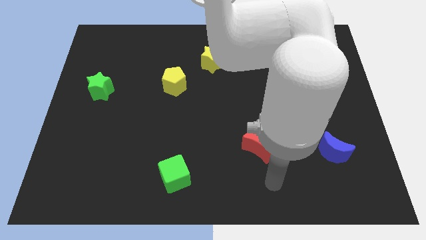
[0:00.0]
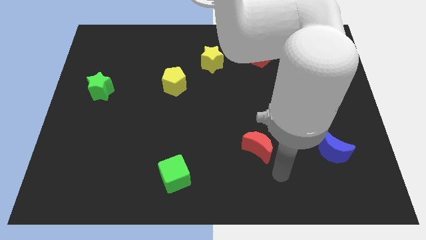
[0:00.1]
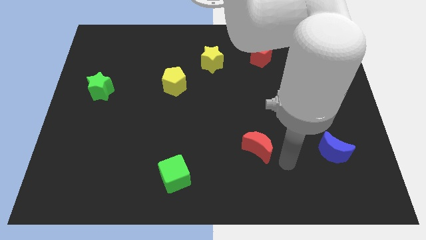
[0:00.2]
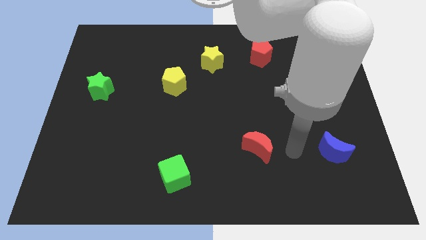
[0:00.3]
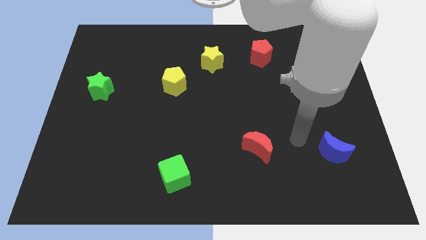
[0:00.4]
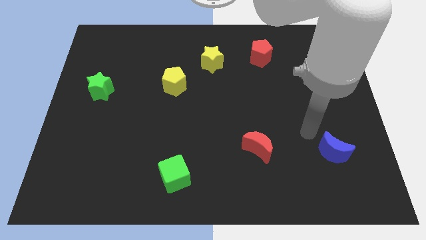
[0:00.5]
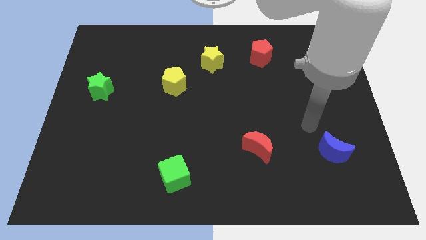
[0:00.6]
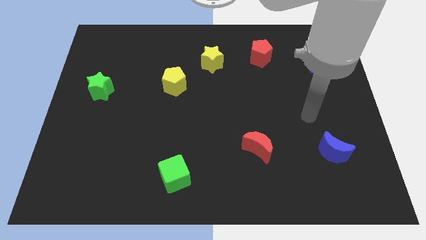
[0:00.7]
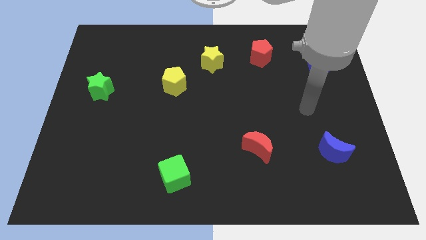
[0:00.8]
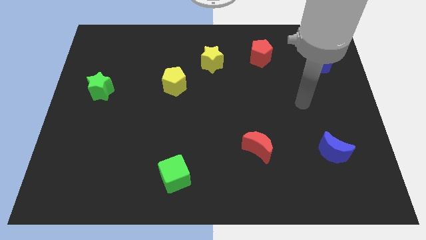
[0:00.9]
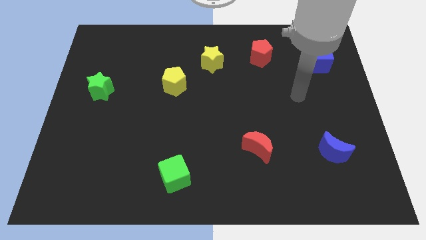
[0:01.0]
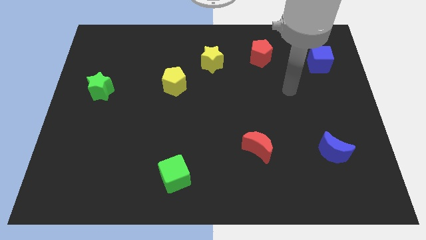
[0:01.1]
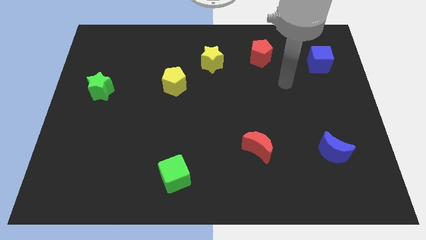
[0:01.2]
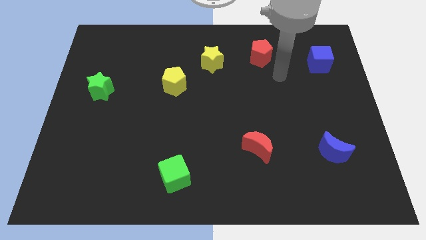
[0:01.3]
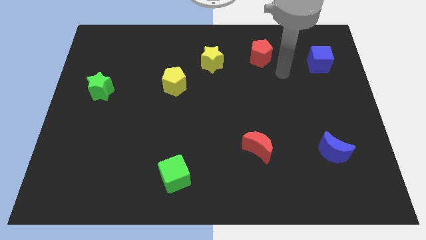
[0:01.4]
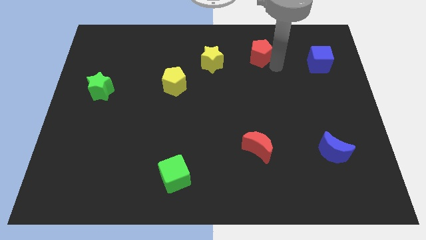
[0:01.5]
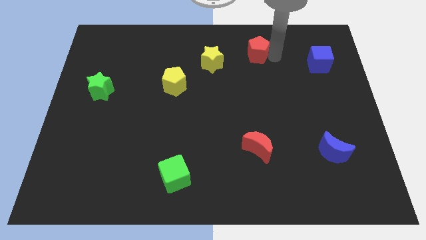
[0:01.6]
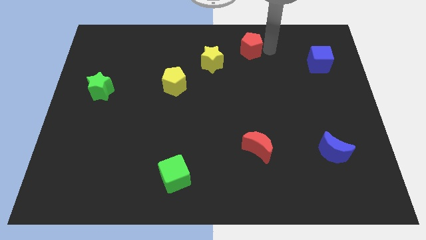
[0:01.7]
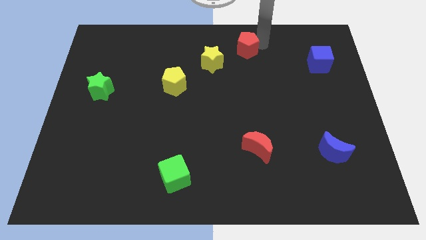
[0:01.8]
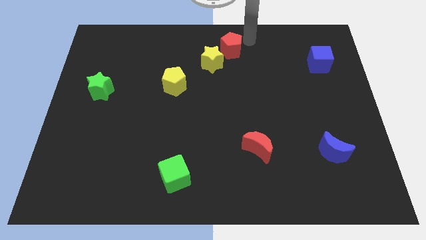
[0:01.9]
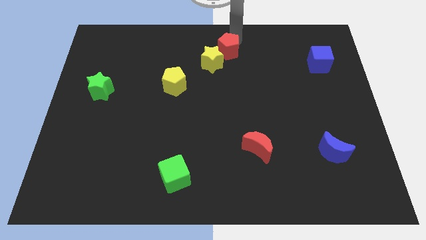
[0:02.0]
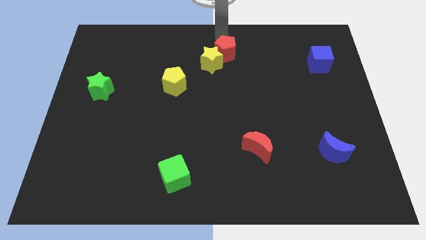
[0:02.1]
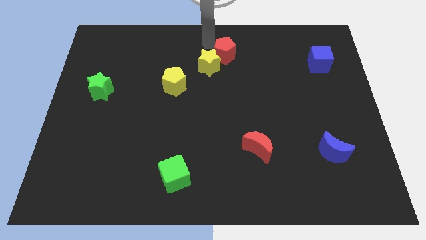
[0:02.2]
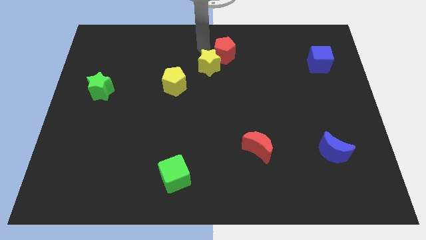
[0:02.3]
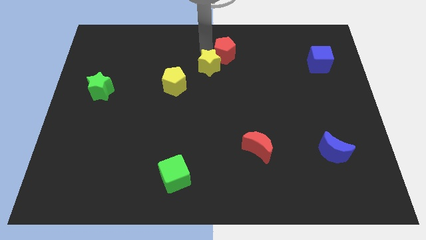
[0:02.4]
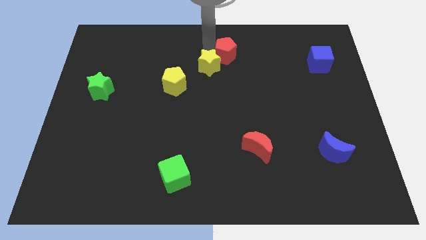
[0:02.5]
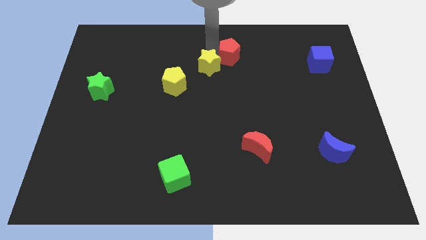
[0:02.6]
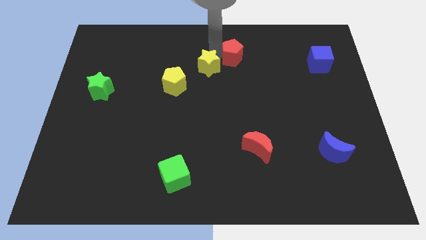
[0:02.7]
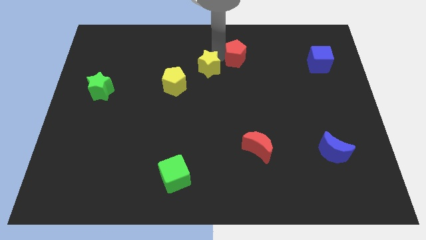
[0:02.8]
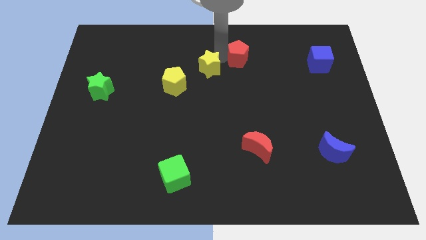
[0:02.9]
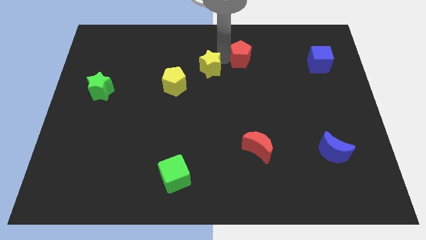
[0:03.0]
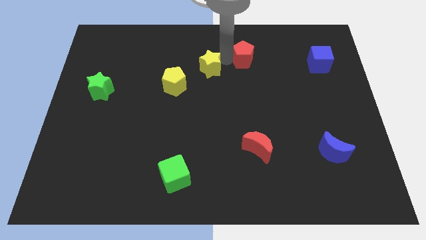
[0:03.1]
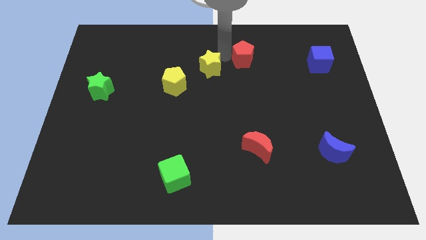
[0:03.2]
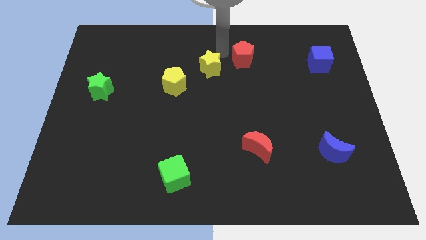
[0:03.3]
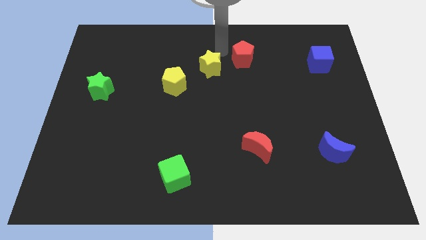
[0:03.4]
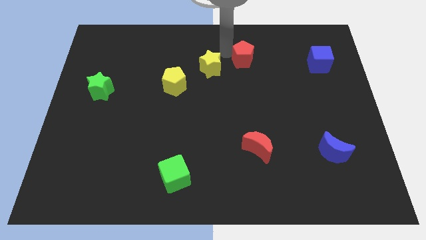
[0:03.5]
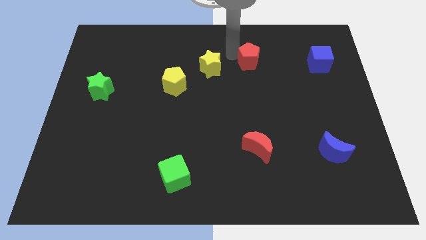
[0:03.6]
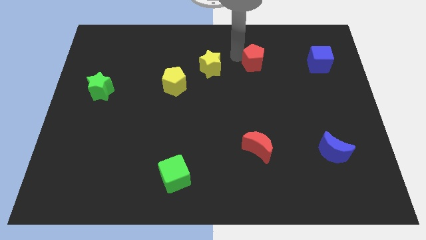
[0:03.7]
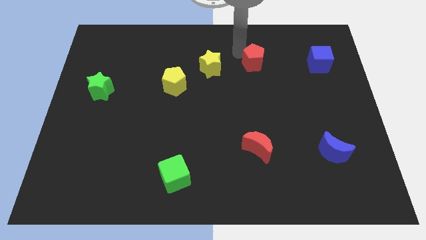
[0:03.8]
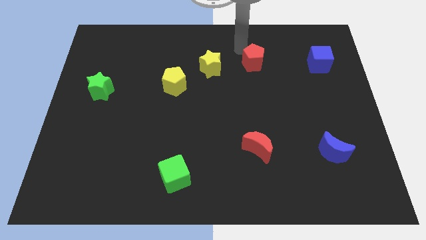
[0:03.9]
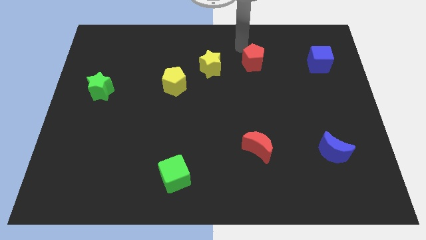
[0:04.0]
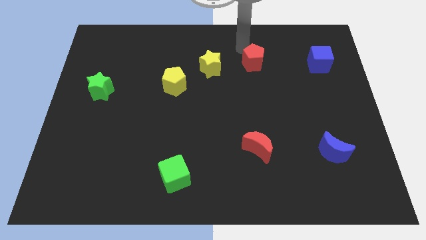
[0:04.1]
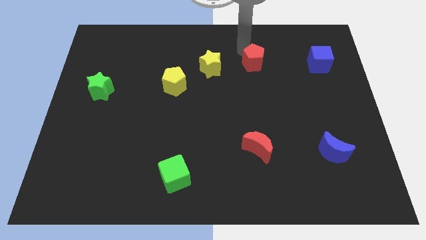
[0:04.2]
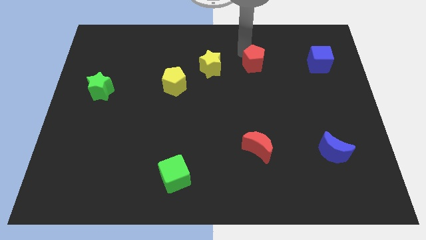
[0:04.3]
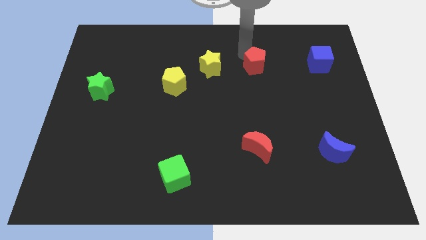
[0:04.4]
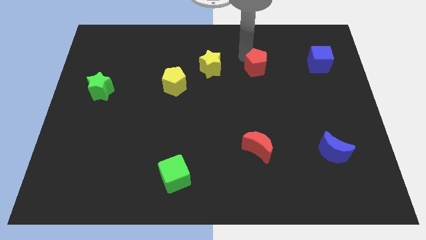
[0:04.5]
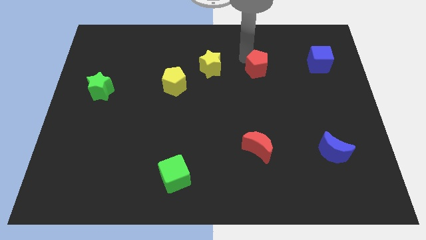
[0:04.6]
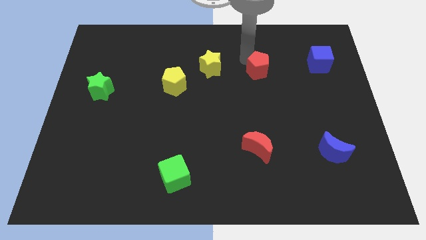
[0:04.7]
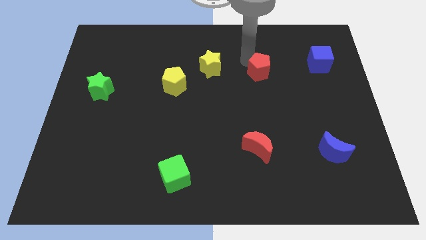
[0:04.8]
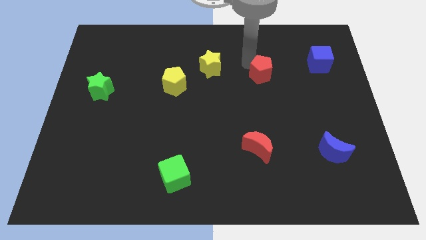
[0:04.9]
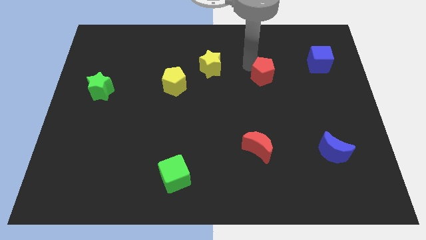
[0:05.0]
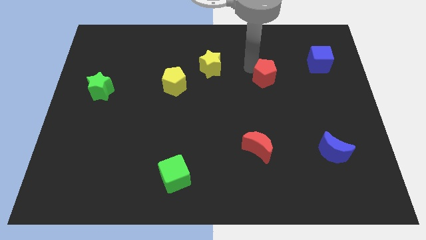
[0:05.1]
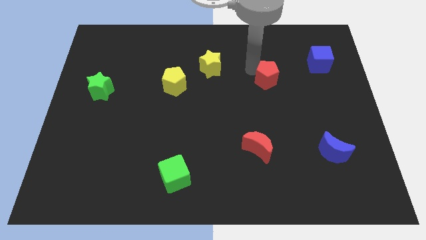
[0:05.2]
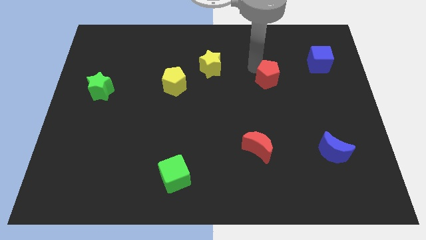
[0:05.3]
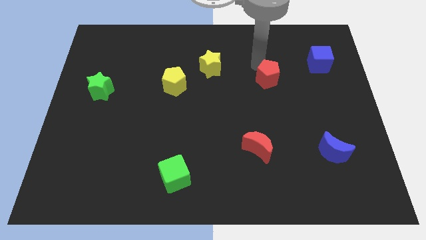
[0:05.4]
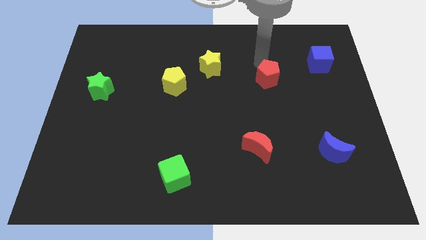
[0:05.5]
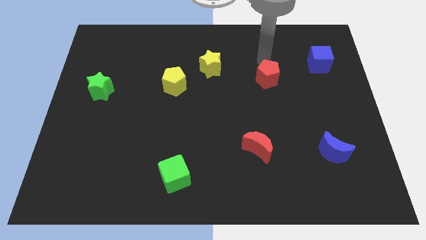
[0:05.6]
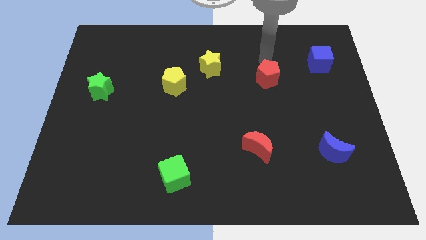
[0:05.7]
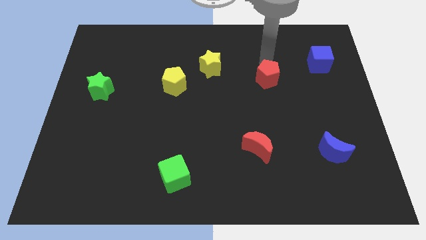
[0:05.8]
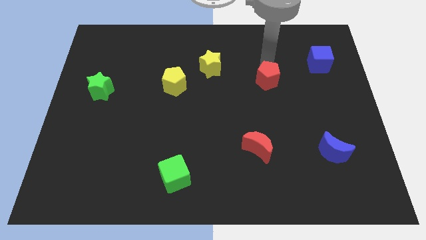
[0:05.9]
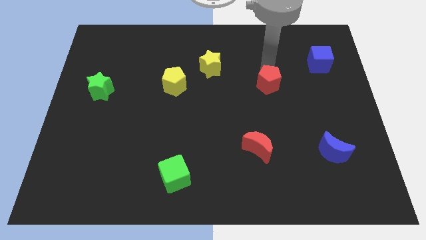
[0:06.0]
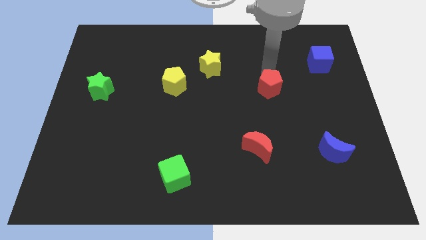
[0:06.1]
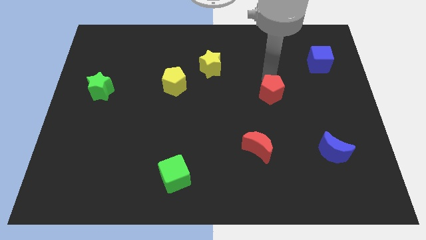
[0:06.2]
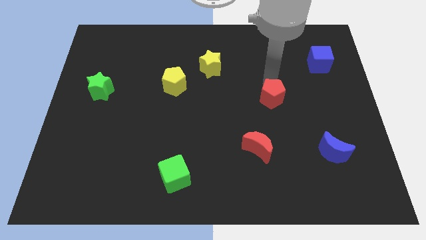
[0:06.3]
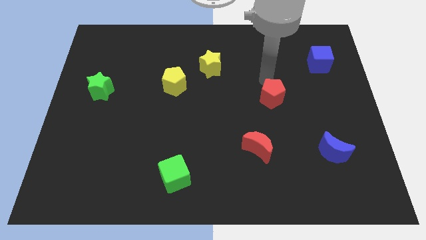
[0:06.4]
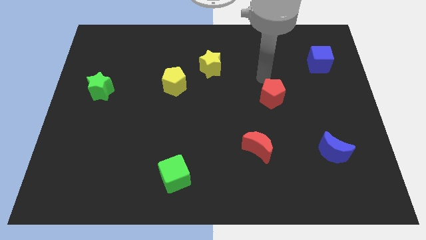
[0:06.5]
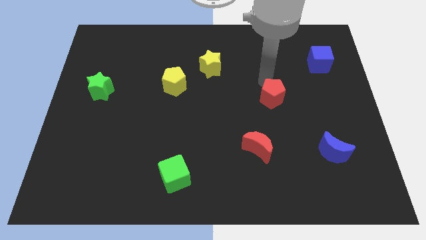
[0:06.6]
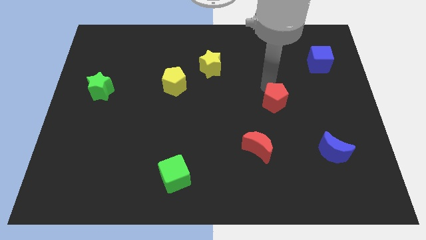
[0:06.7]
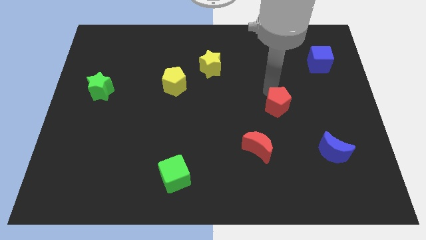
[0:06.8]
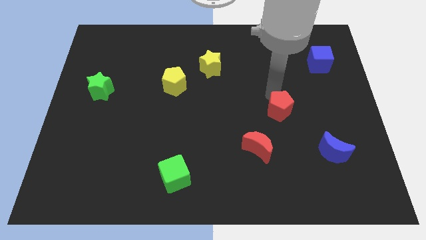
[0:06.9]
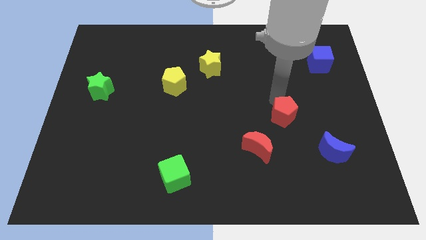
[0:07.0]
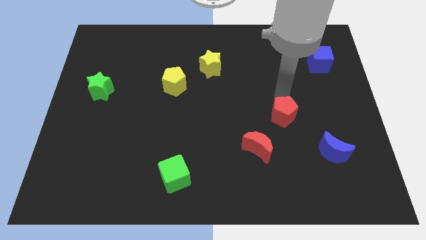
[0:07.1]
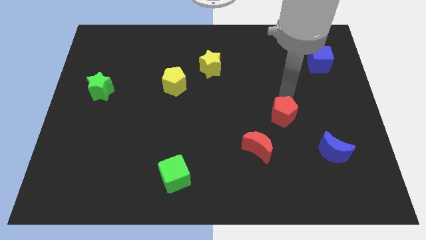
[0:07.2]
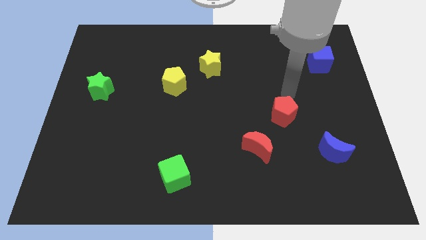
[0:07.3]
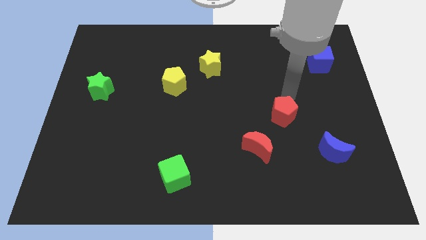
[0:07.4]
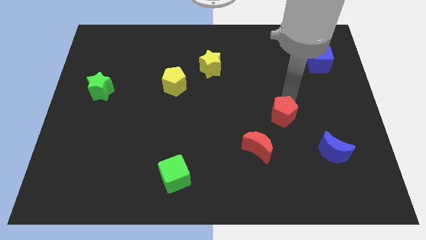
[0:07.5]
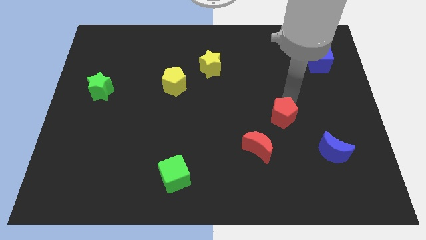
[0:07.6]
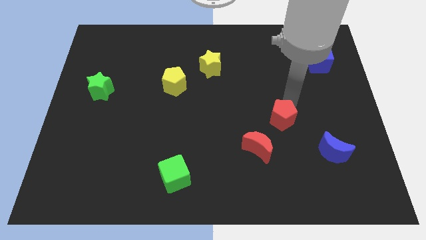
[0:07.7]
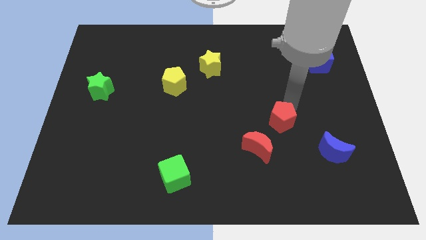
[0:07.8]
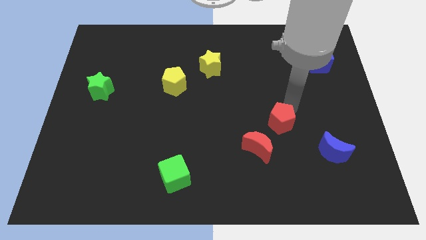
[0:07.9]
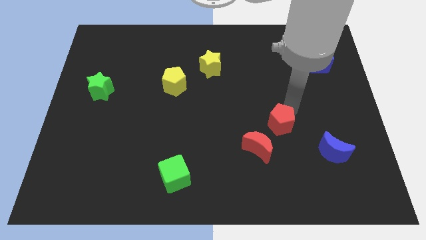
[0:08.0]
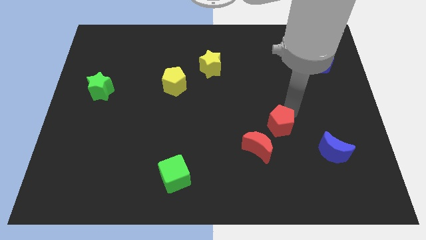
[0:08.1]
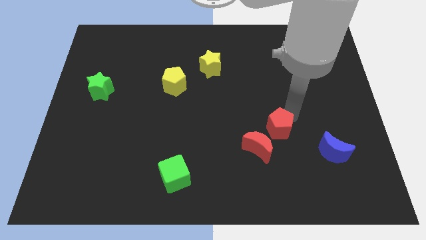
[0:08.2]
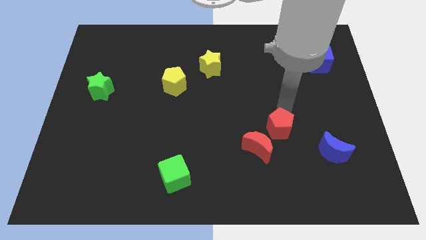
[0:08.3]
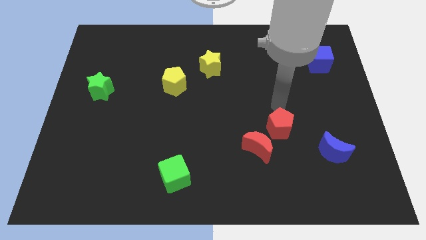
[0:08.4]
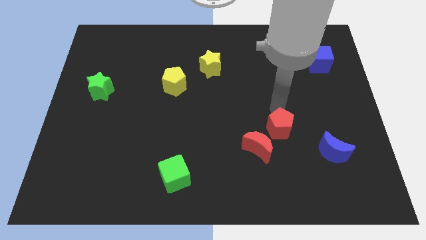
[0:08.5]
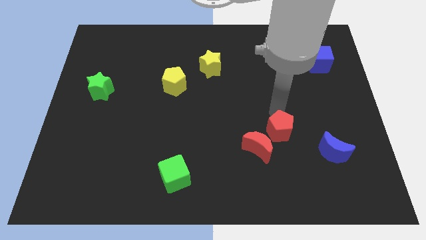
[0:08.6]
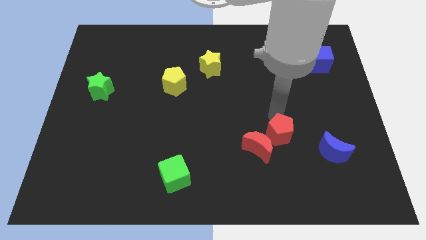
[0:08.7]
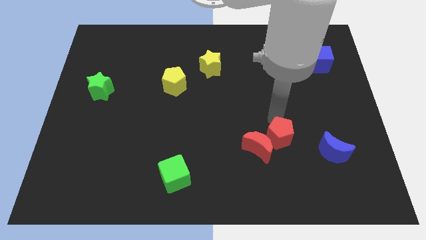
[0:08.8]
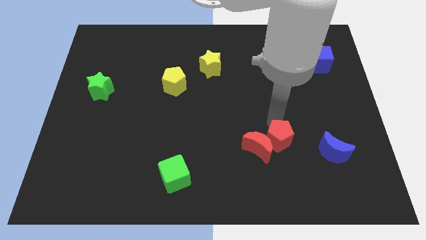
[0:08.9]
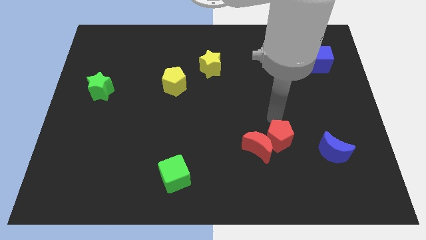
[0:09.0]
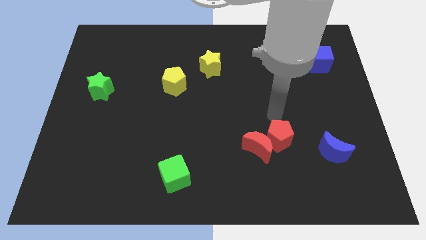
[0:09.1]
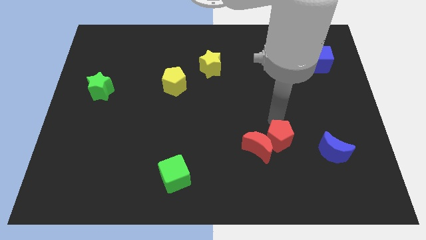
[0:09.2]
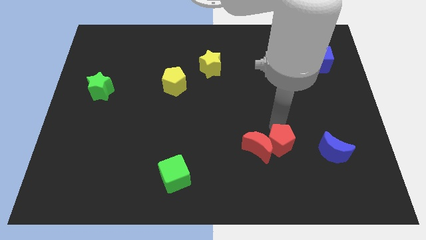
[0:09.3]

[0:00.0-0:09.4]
move the red pentagon diagonally down and to the right of the red moon
